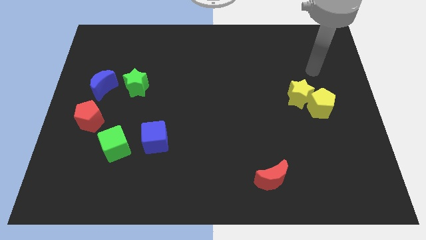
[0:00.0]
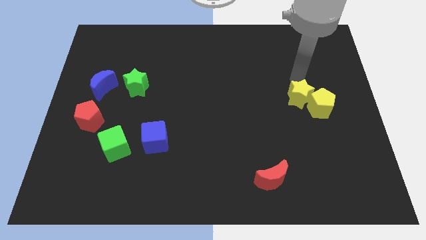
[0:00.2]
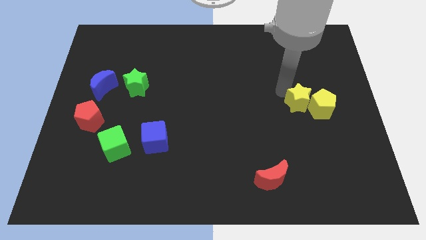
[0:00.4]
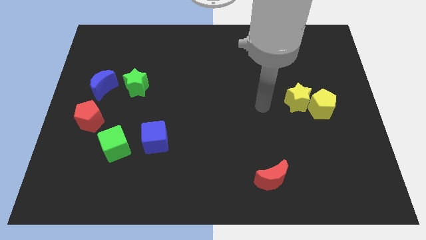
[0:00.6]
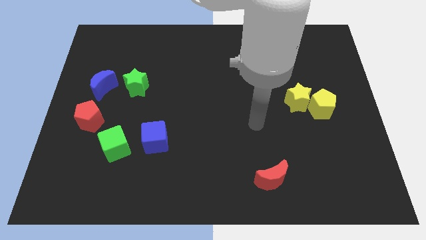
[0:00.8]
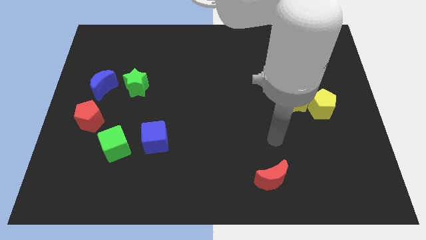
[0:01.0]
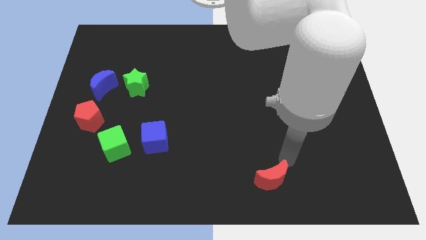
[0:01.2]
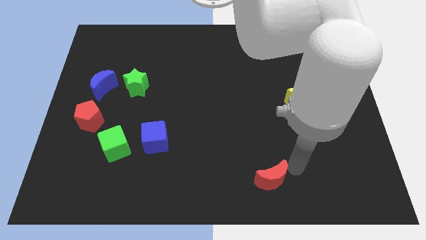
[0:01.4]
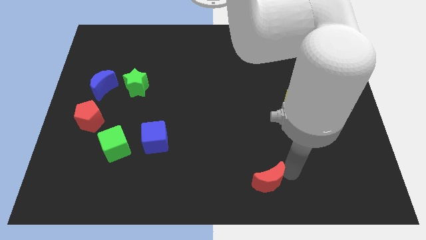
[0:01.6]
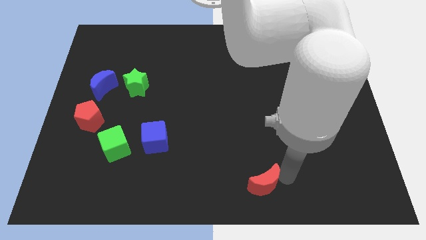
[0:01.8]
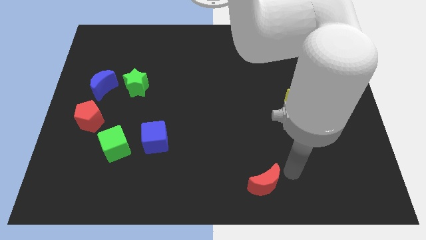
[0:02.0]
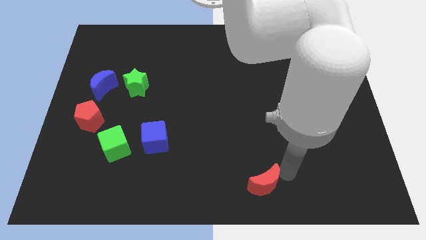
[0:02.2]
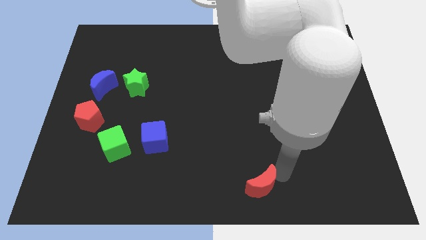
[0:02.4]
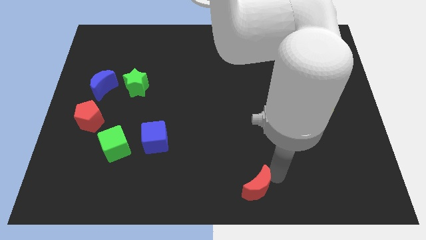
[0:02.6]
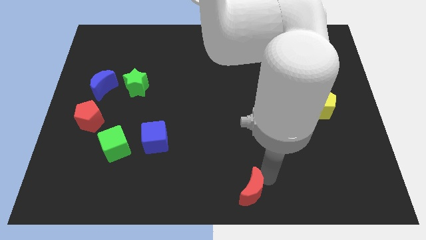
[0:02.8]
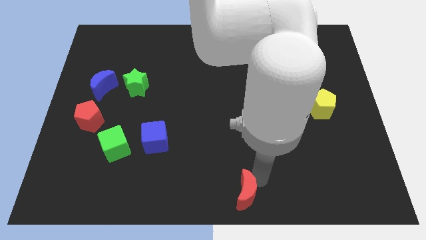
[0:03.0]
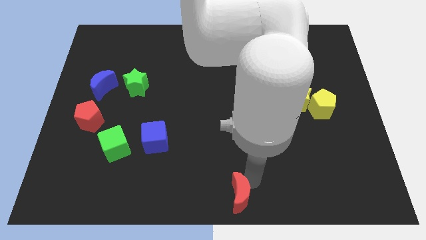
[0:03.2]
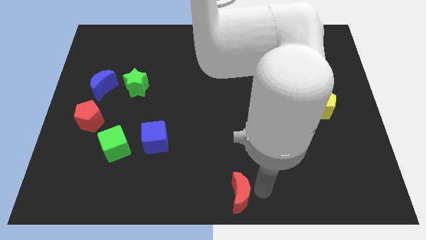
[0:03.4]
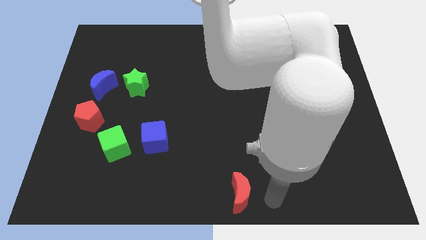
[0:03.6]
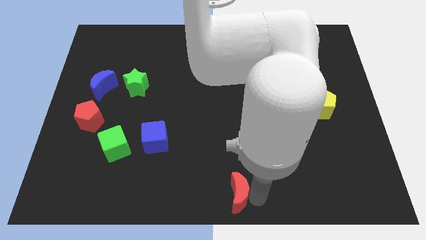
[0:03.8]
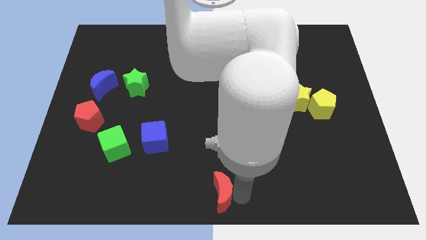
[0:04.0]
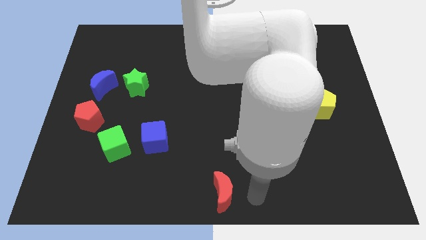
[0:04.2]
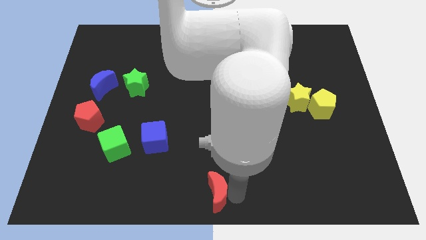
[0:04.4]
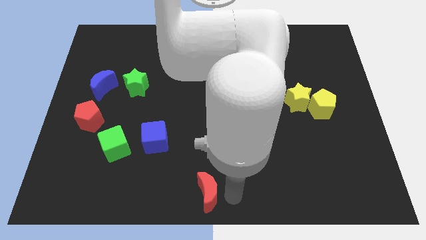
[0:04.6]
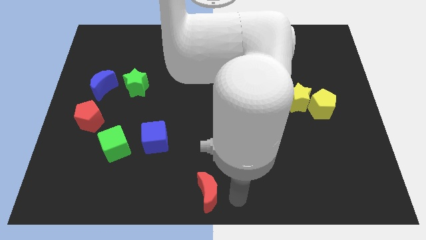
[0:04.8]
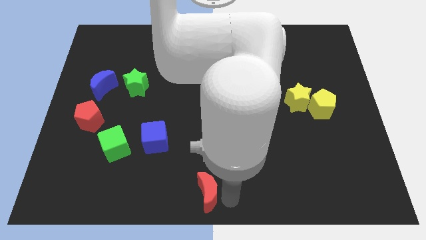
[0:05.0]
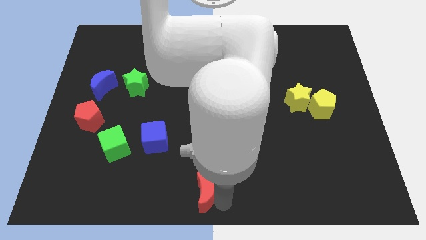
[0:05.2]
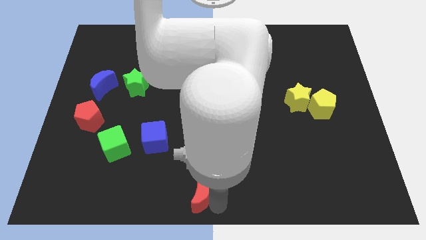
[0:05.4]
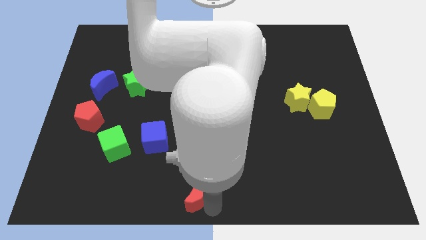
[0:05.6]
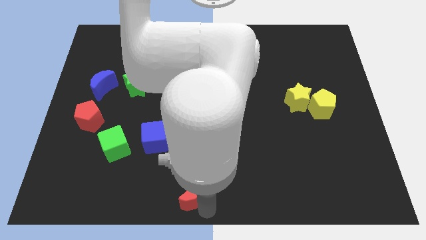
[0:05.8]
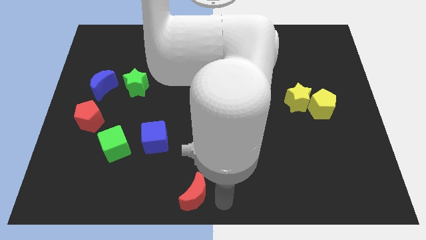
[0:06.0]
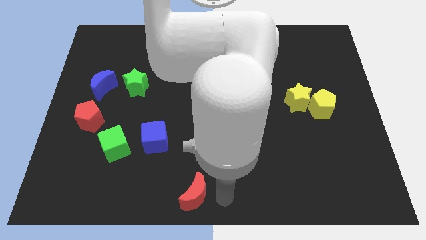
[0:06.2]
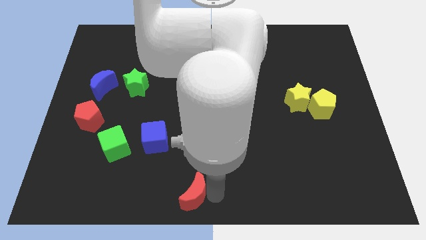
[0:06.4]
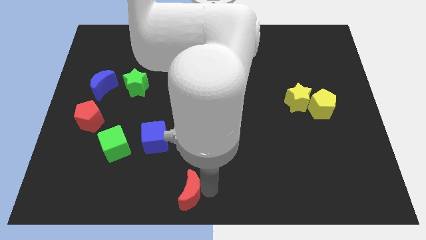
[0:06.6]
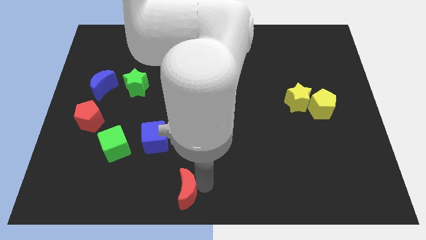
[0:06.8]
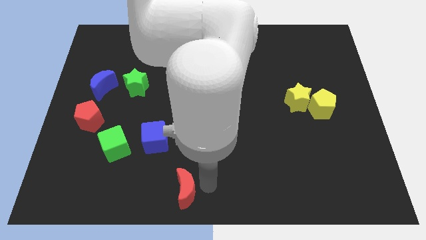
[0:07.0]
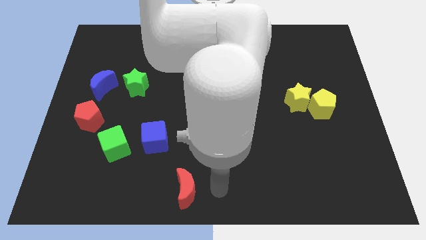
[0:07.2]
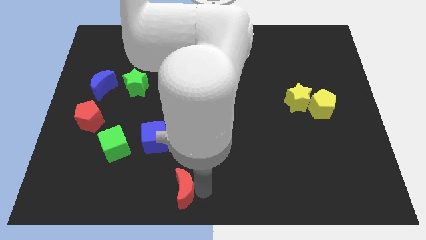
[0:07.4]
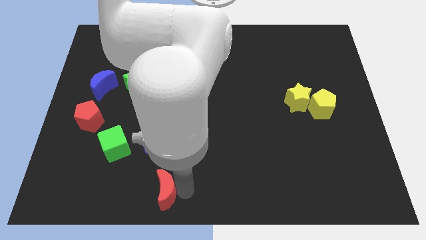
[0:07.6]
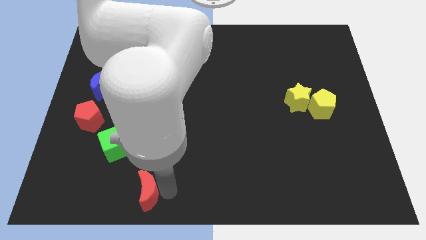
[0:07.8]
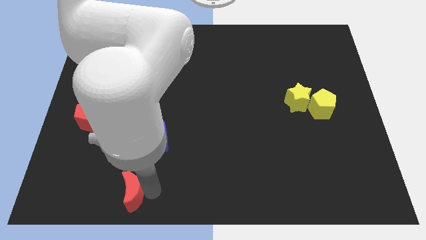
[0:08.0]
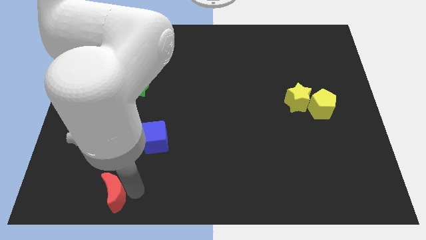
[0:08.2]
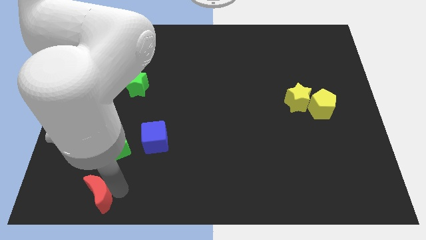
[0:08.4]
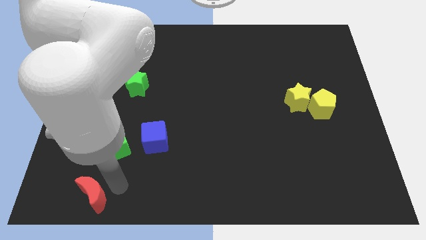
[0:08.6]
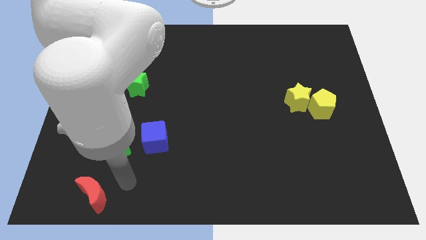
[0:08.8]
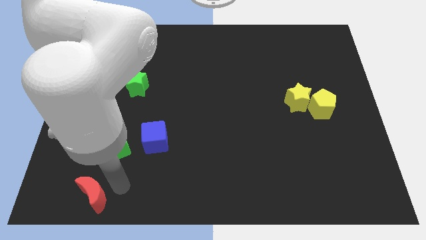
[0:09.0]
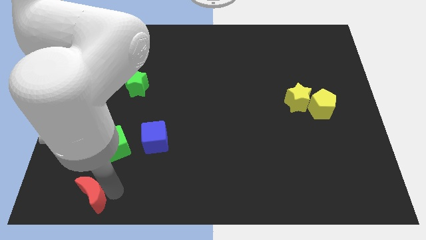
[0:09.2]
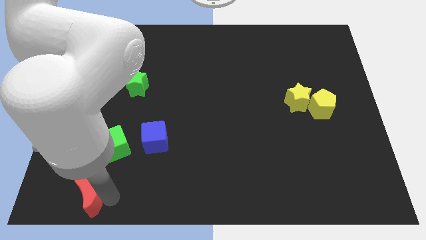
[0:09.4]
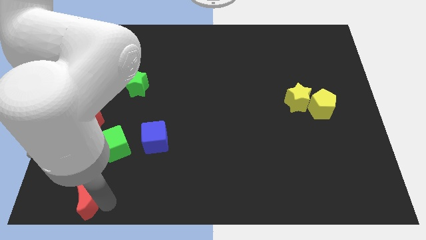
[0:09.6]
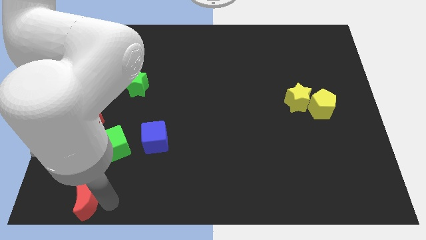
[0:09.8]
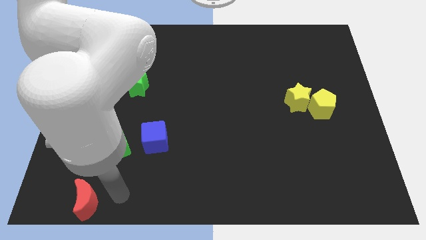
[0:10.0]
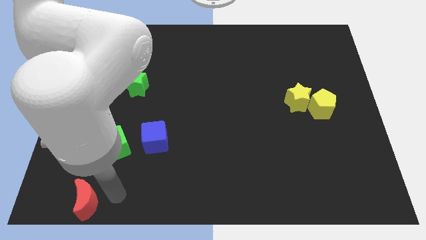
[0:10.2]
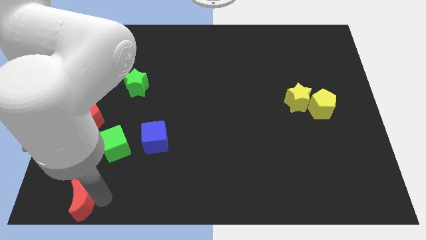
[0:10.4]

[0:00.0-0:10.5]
put the red moon to the bottom left
